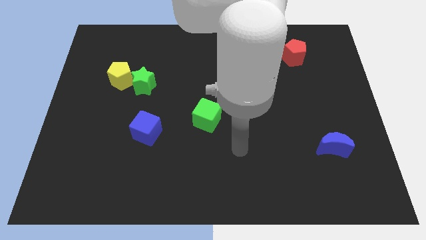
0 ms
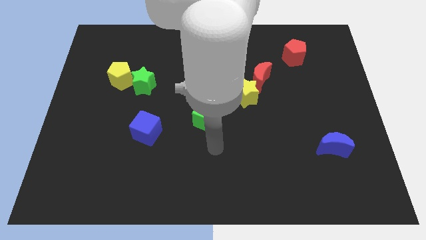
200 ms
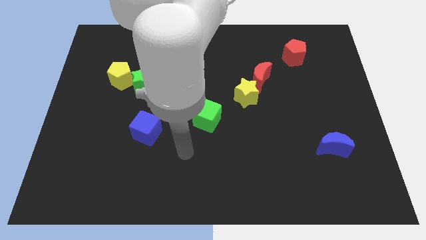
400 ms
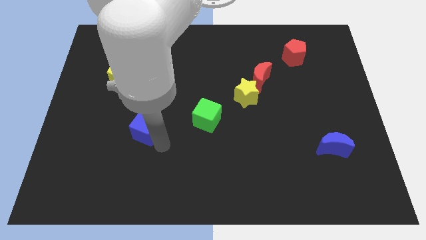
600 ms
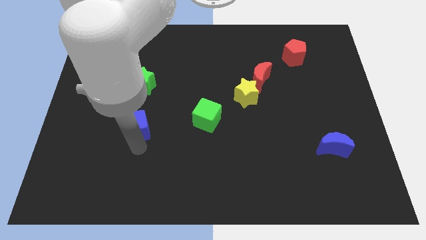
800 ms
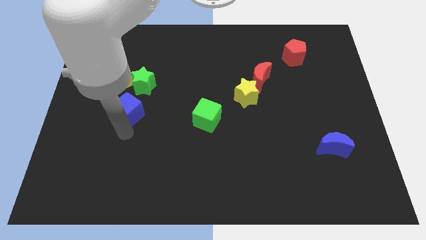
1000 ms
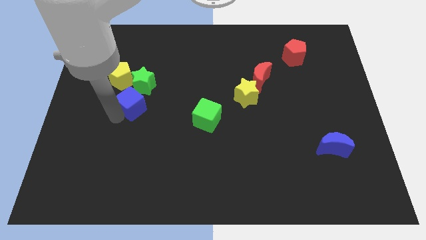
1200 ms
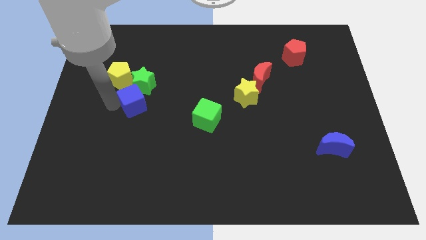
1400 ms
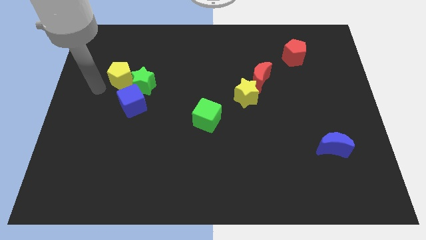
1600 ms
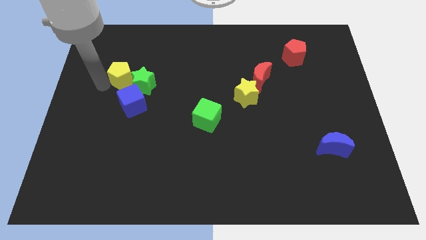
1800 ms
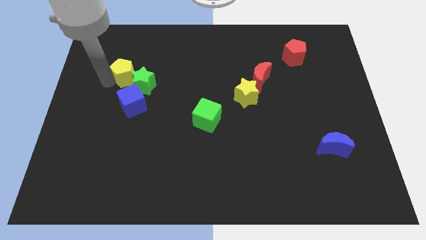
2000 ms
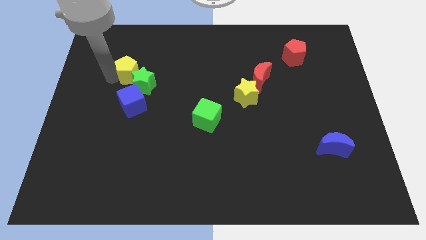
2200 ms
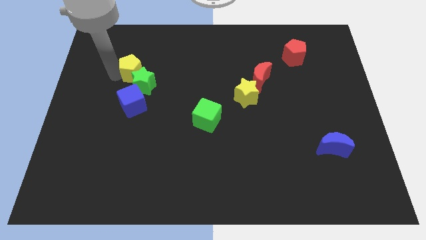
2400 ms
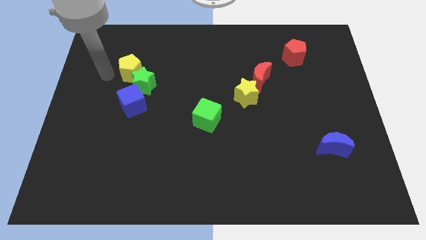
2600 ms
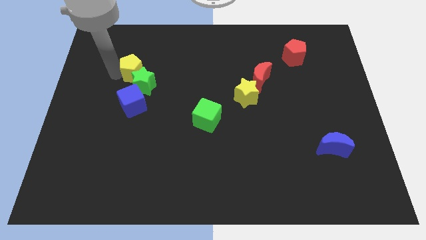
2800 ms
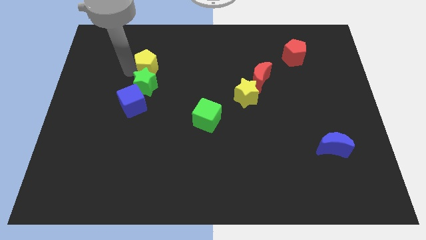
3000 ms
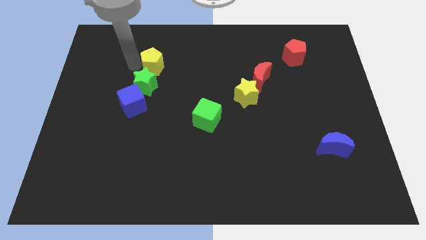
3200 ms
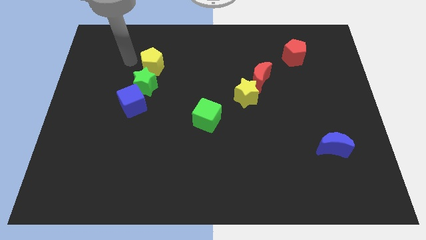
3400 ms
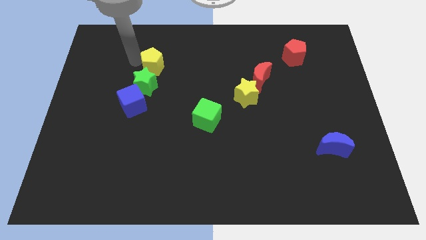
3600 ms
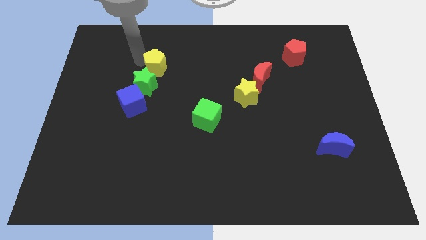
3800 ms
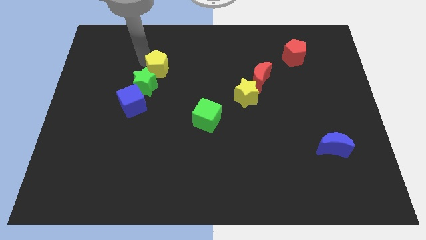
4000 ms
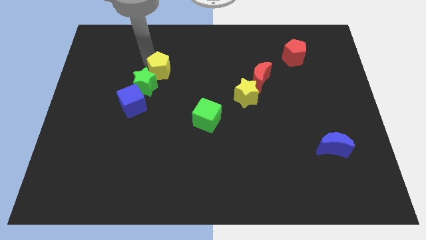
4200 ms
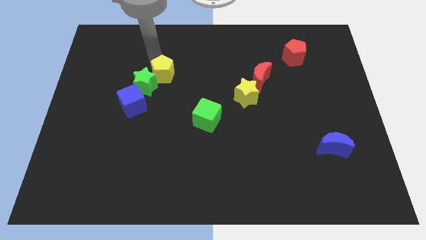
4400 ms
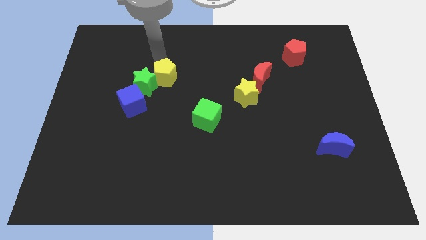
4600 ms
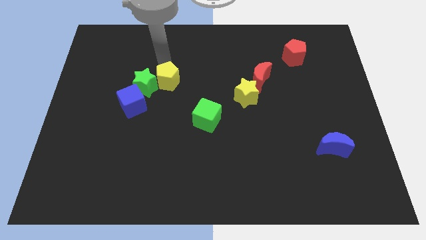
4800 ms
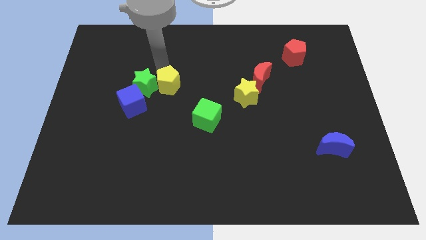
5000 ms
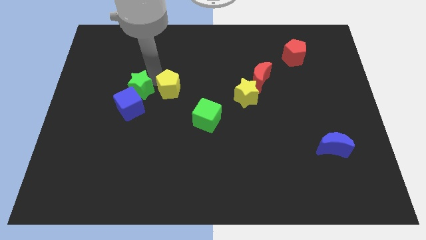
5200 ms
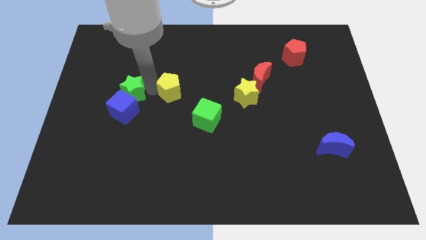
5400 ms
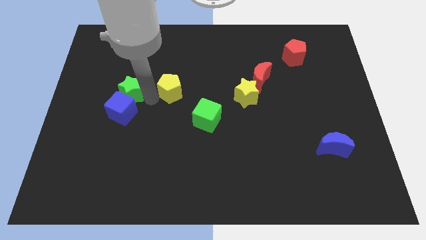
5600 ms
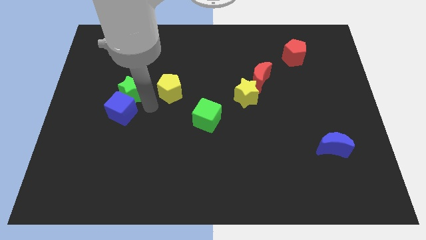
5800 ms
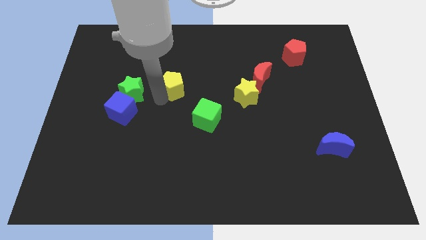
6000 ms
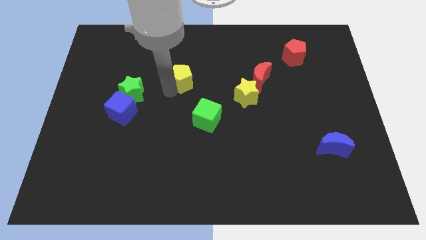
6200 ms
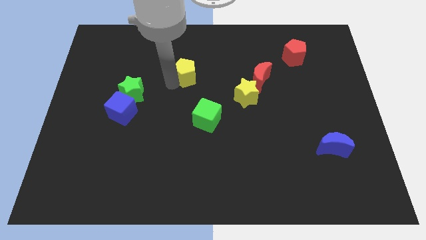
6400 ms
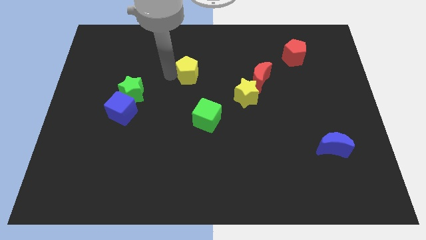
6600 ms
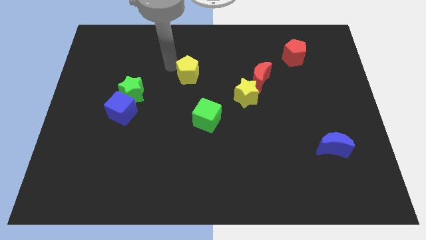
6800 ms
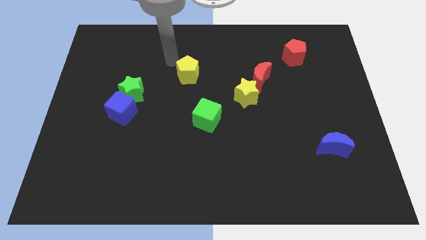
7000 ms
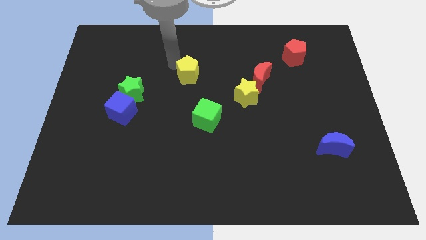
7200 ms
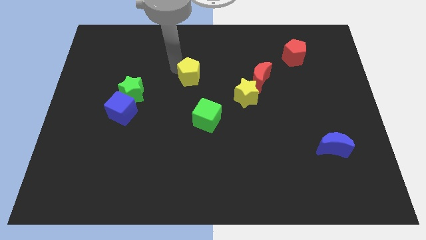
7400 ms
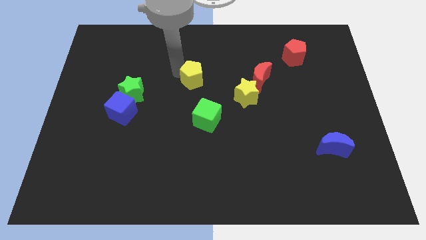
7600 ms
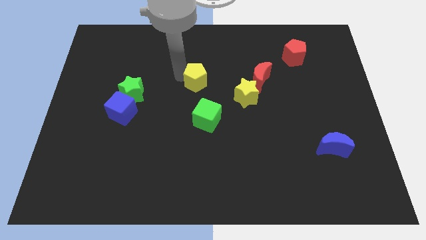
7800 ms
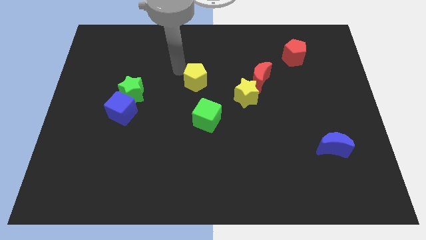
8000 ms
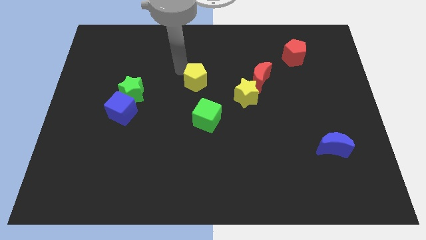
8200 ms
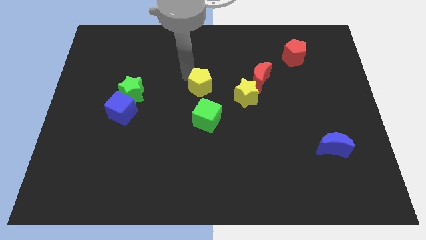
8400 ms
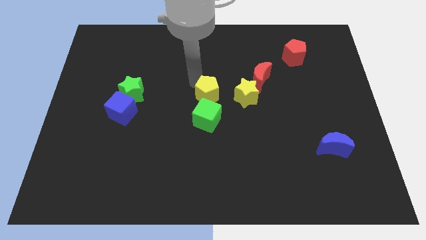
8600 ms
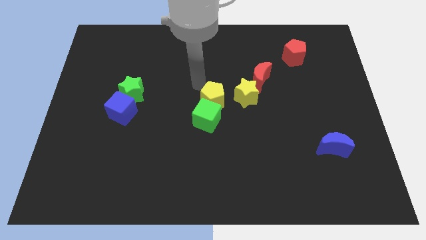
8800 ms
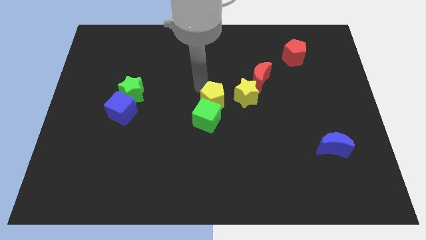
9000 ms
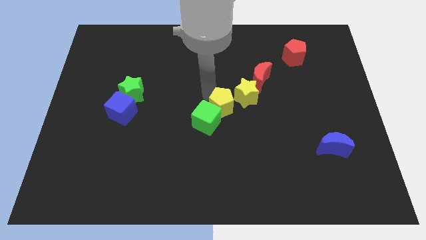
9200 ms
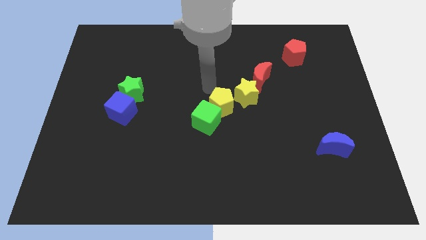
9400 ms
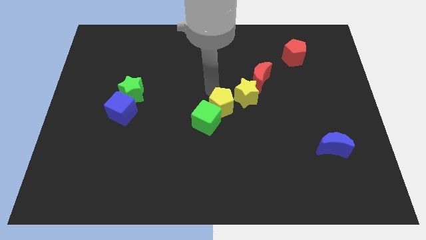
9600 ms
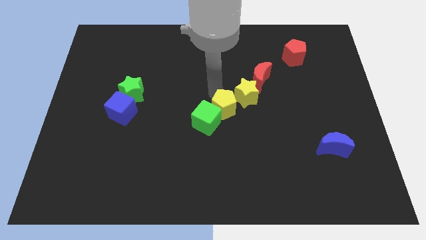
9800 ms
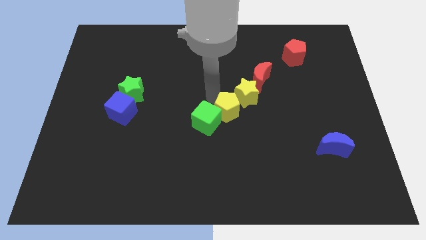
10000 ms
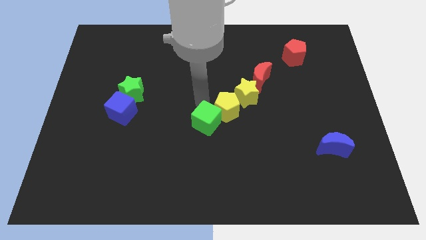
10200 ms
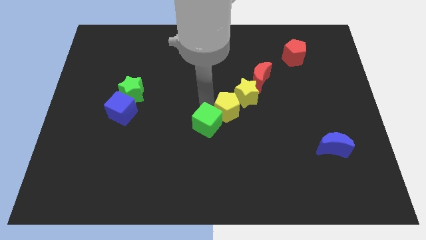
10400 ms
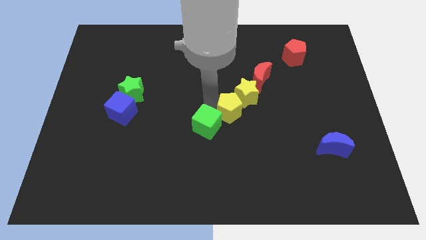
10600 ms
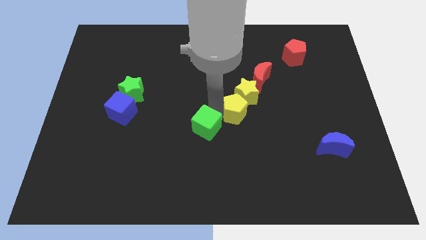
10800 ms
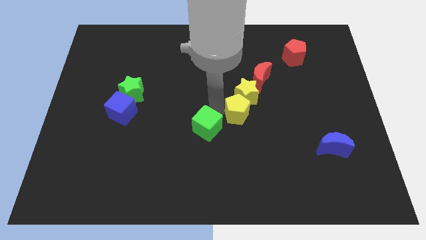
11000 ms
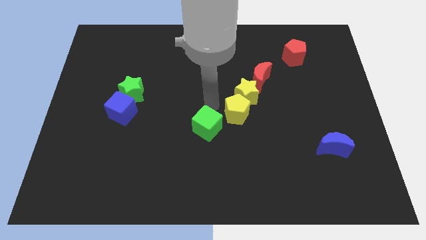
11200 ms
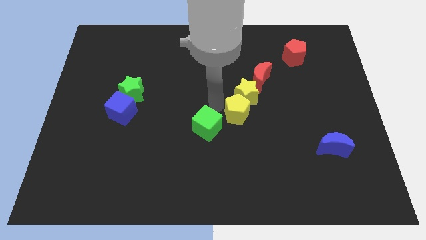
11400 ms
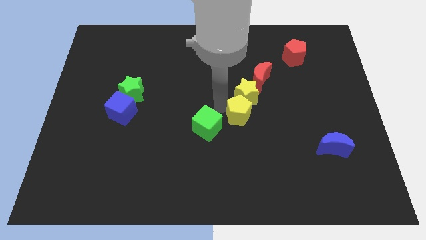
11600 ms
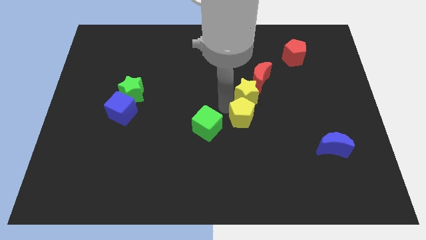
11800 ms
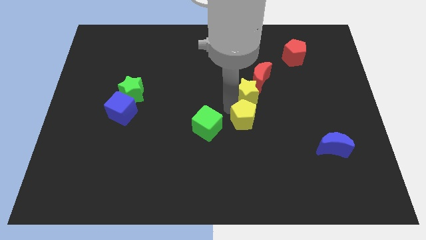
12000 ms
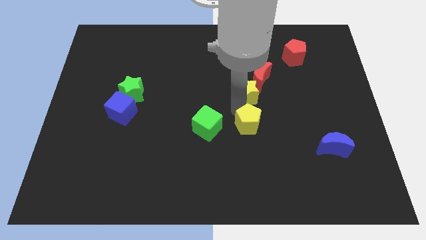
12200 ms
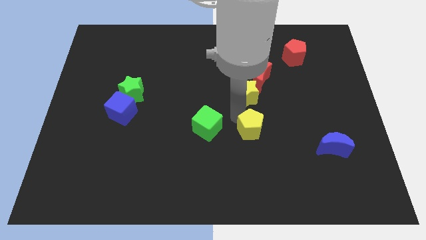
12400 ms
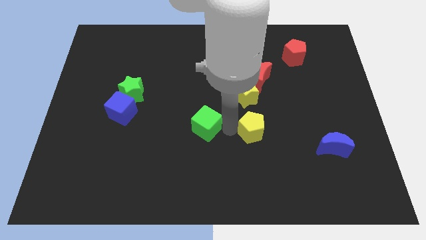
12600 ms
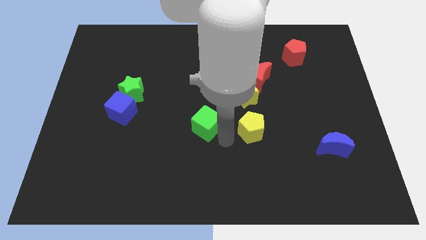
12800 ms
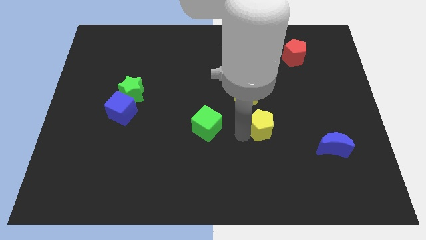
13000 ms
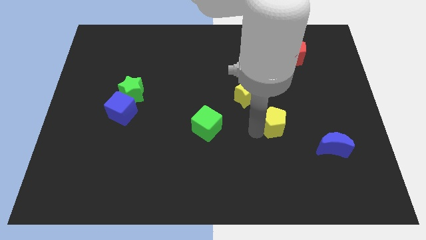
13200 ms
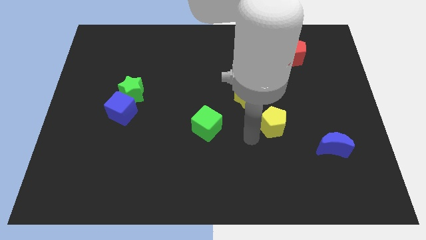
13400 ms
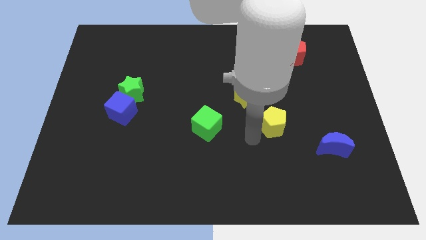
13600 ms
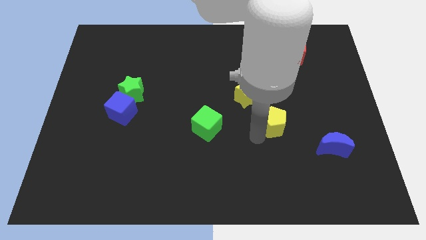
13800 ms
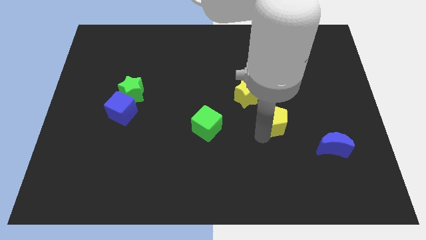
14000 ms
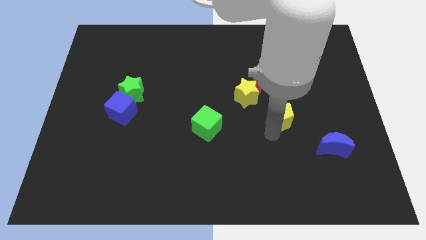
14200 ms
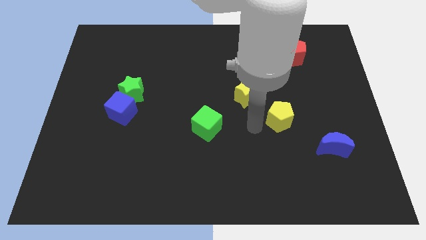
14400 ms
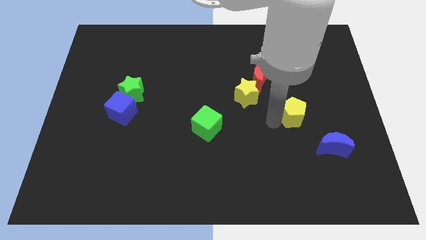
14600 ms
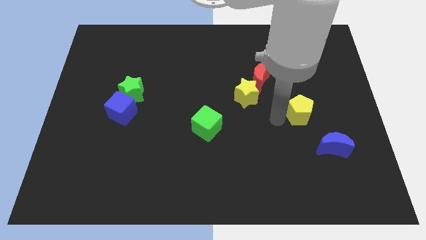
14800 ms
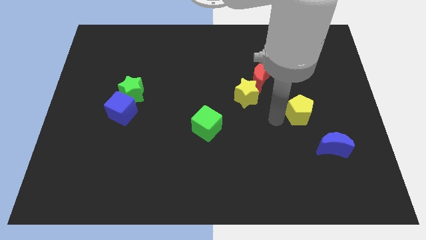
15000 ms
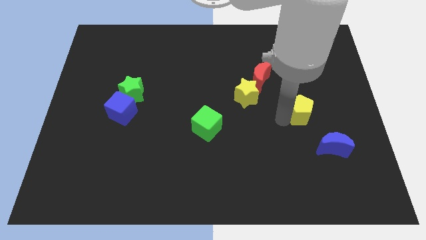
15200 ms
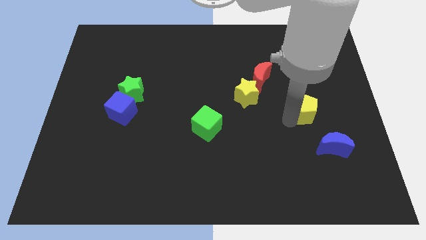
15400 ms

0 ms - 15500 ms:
slide the yellow pentagon above the blue moon

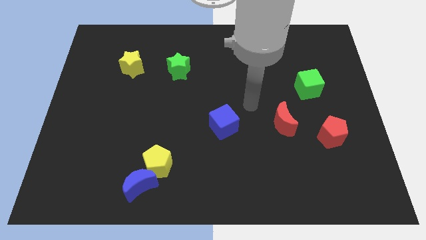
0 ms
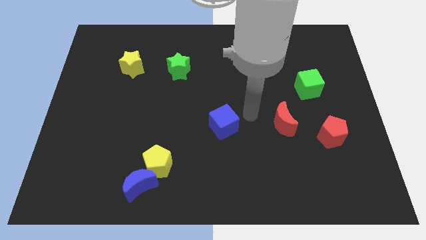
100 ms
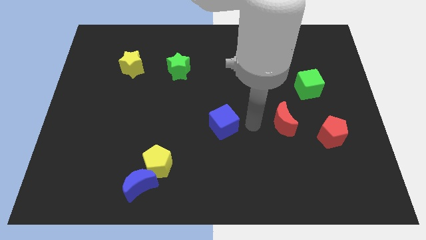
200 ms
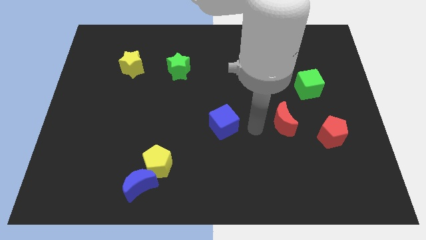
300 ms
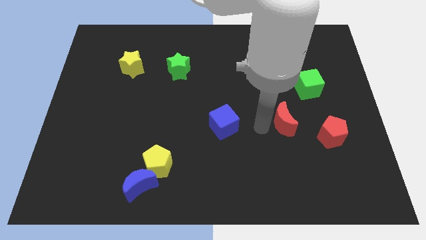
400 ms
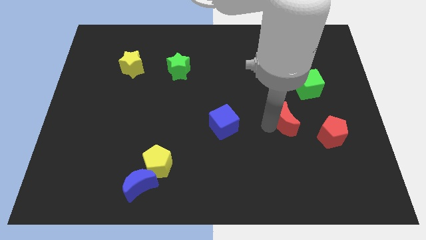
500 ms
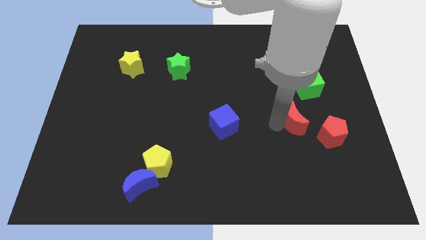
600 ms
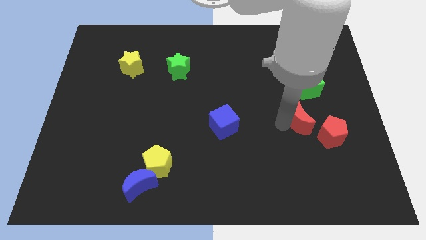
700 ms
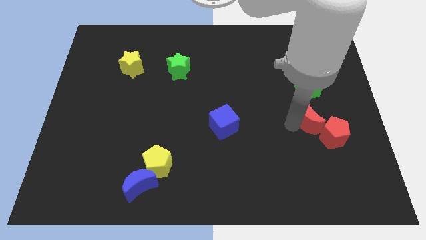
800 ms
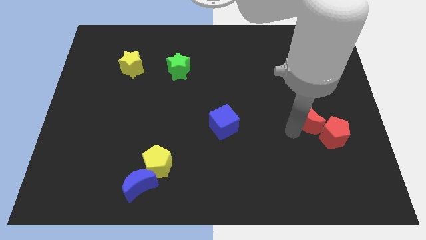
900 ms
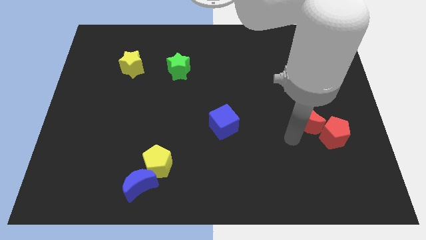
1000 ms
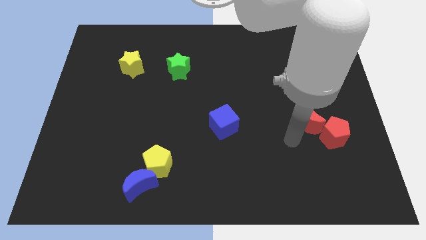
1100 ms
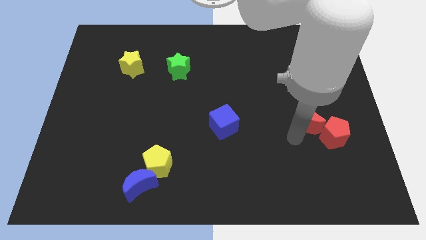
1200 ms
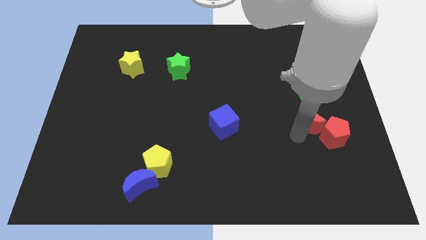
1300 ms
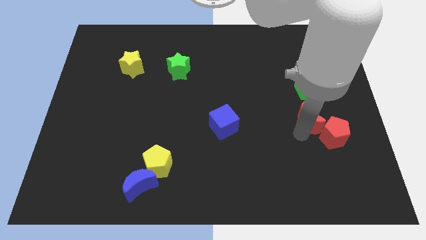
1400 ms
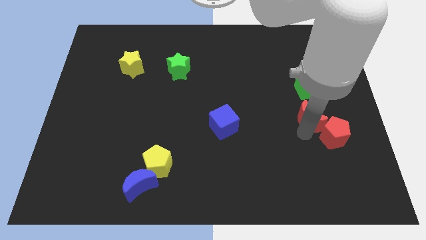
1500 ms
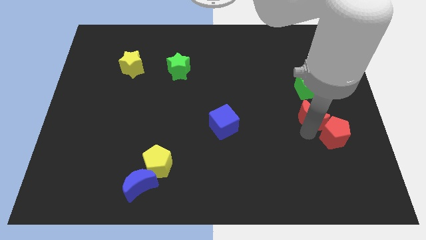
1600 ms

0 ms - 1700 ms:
push the red moon to the top side of the red pentagon
